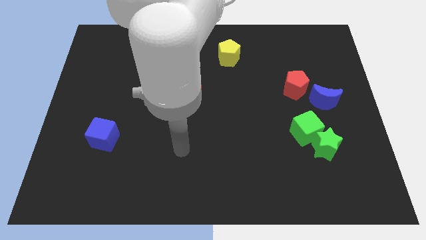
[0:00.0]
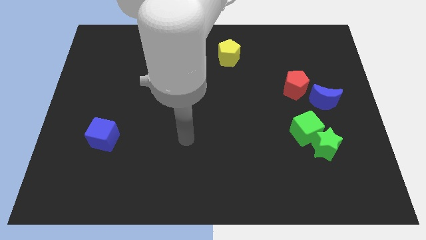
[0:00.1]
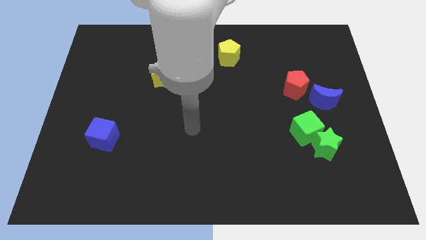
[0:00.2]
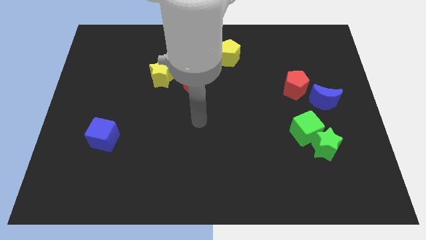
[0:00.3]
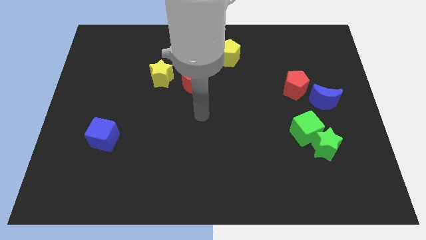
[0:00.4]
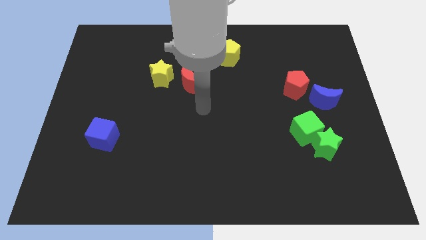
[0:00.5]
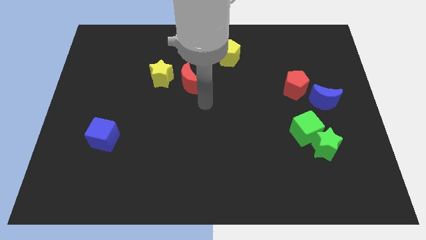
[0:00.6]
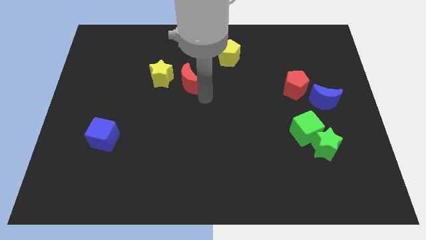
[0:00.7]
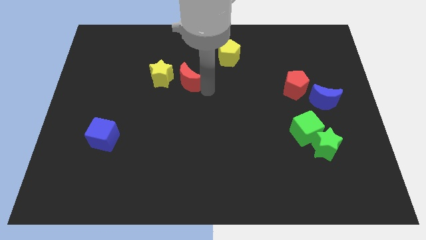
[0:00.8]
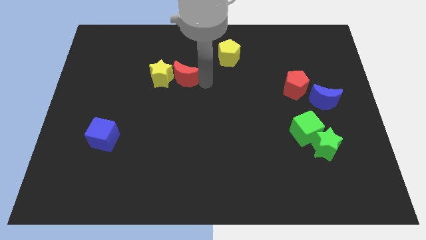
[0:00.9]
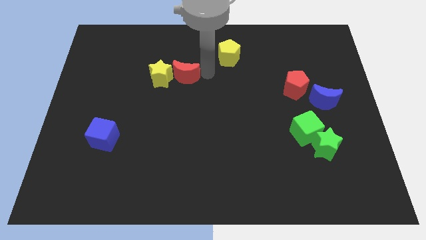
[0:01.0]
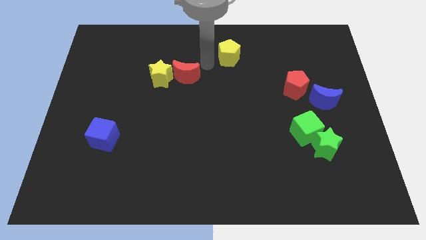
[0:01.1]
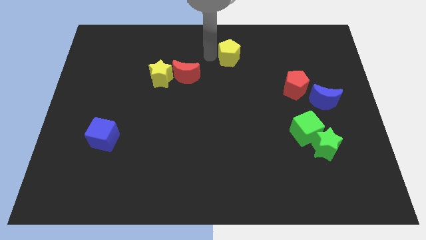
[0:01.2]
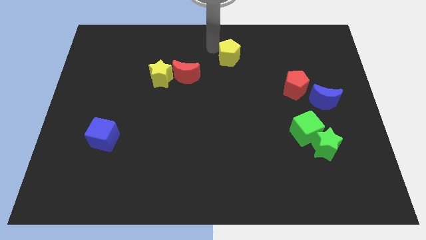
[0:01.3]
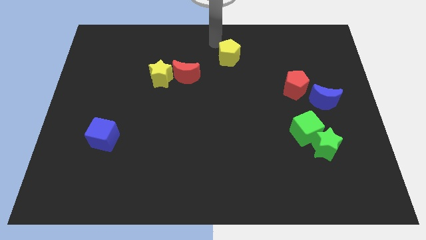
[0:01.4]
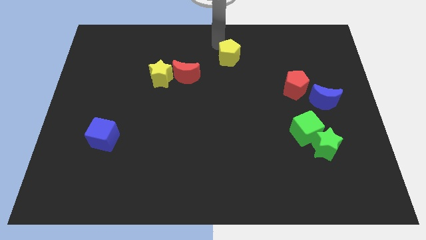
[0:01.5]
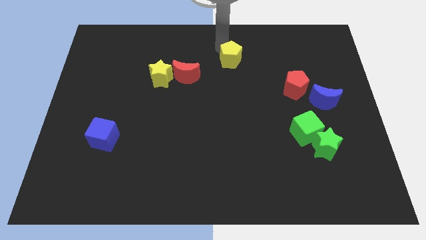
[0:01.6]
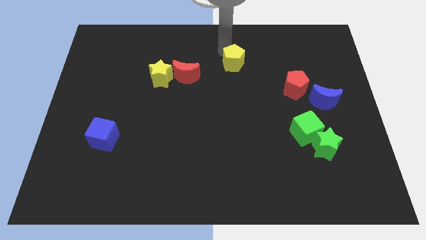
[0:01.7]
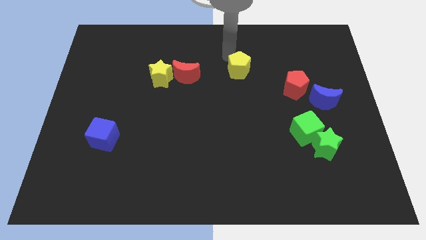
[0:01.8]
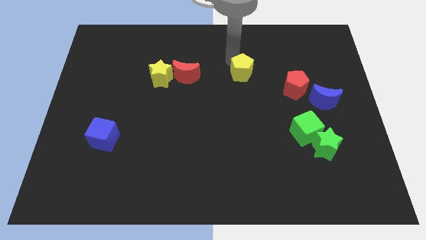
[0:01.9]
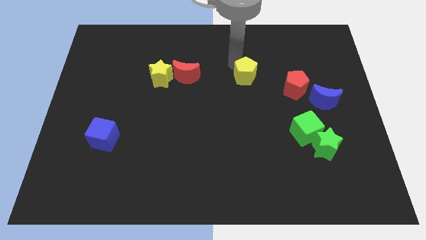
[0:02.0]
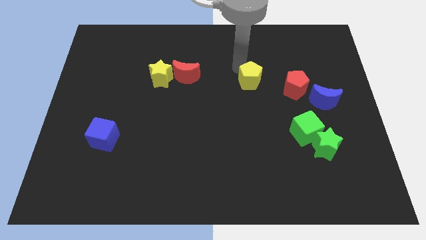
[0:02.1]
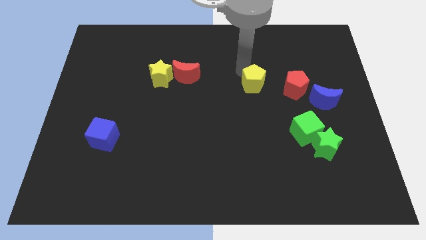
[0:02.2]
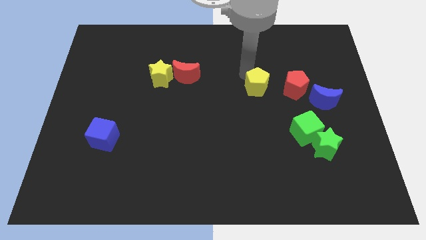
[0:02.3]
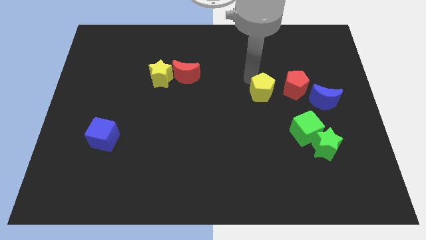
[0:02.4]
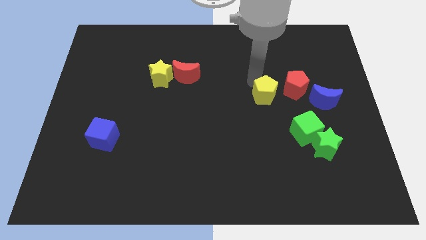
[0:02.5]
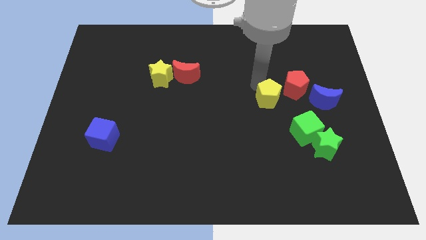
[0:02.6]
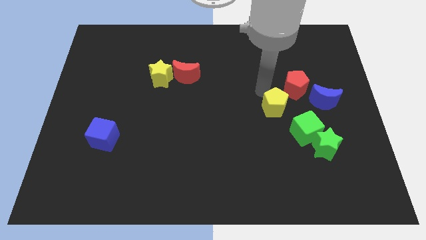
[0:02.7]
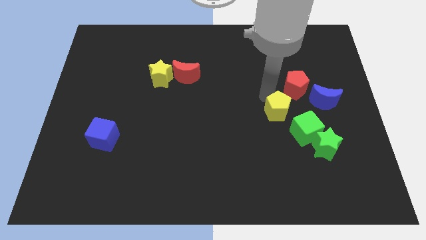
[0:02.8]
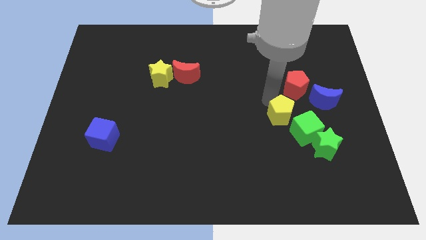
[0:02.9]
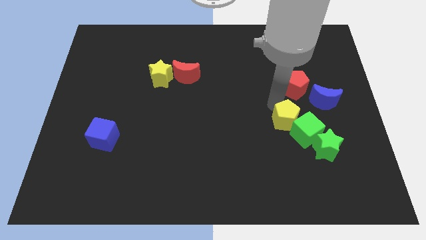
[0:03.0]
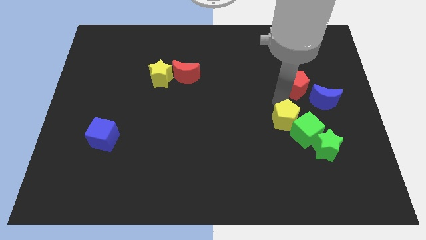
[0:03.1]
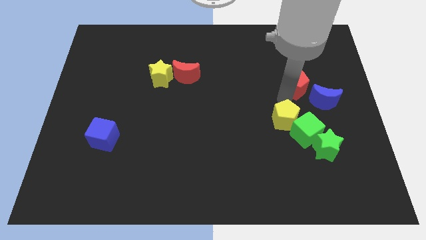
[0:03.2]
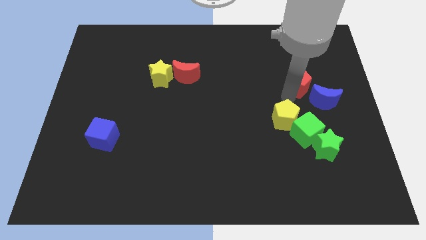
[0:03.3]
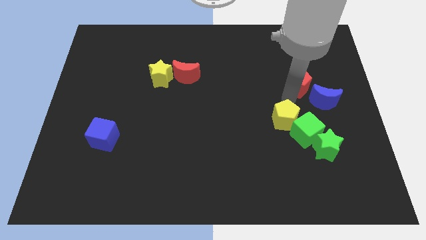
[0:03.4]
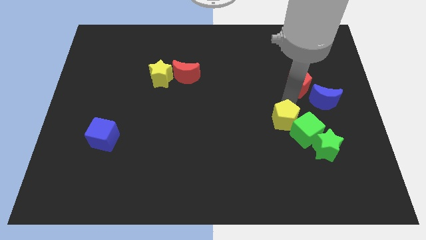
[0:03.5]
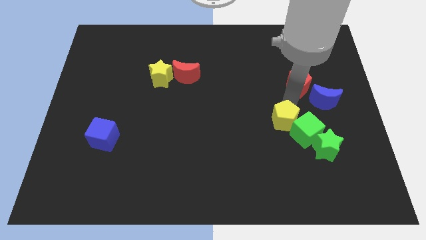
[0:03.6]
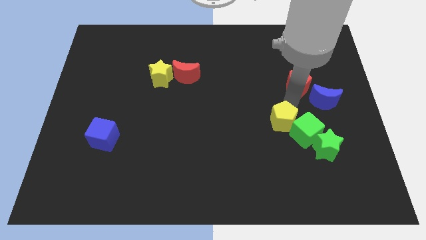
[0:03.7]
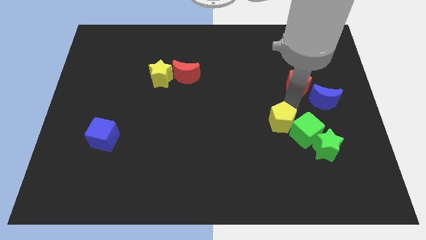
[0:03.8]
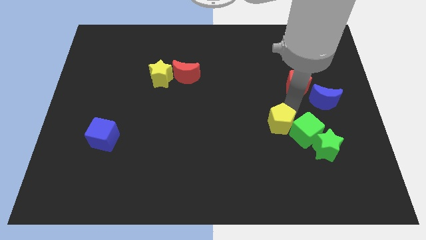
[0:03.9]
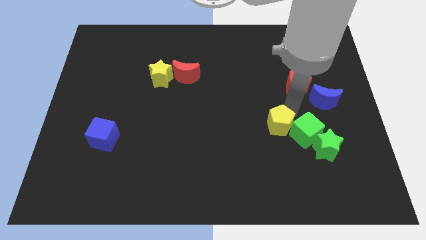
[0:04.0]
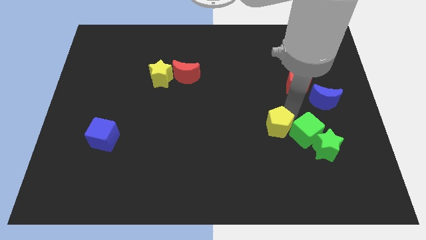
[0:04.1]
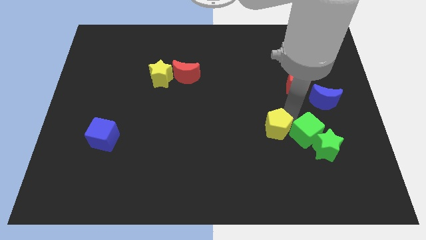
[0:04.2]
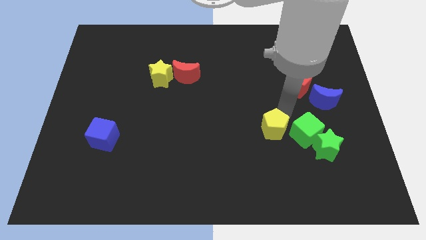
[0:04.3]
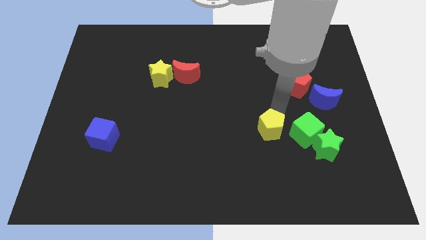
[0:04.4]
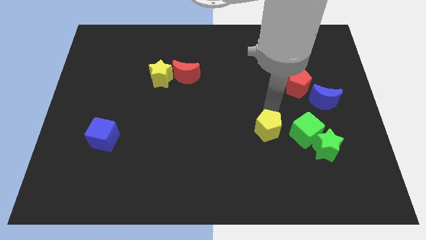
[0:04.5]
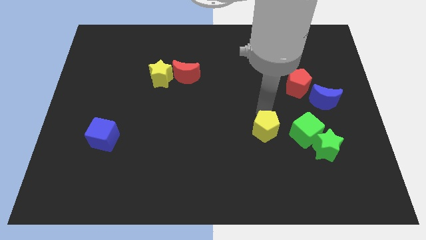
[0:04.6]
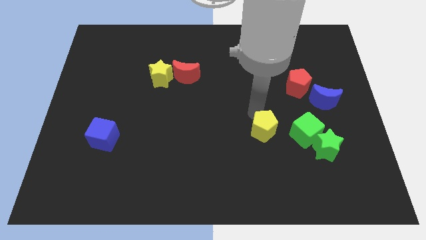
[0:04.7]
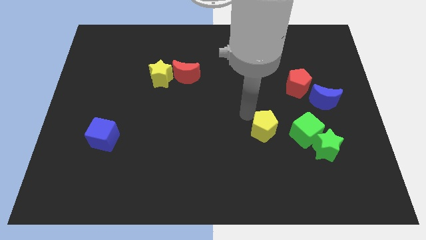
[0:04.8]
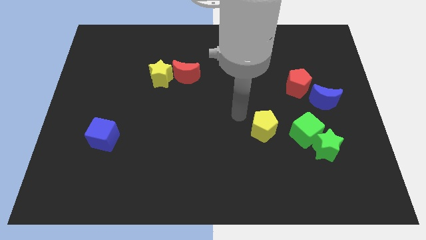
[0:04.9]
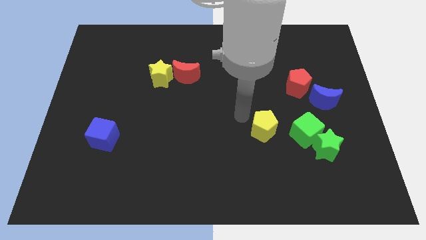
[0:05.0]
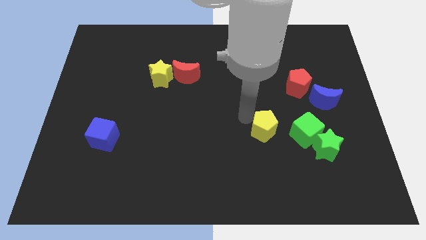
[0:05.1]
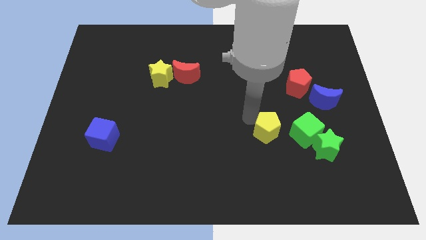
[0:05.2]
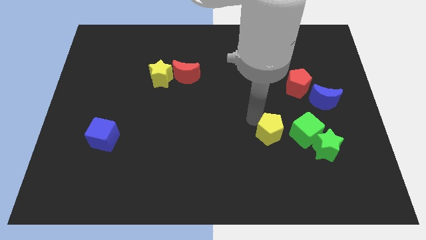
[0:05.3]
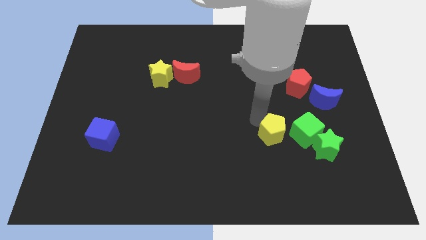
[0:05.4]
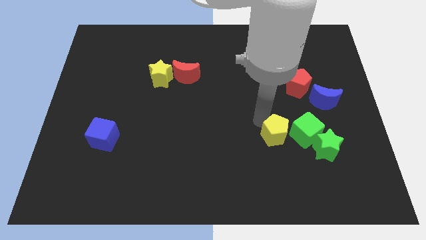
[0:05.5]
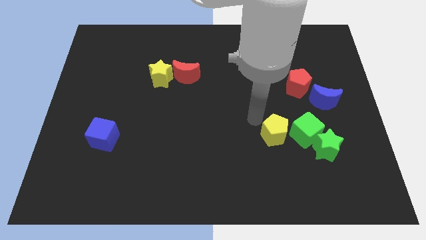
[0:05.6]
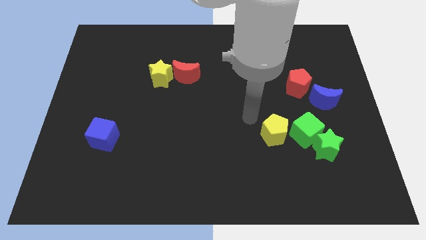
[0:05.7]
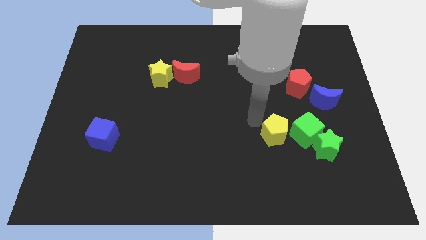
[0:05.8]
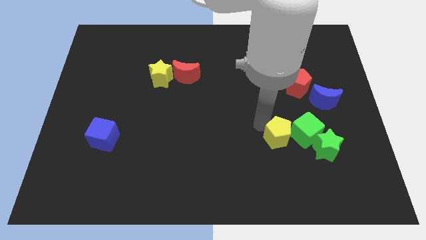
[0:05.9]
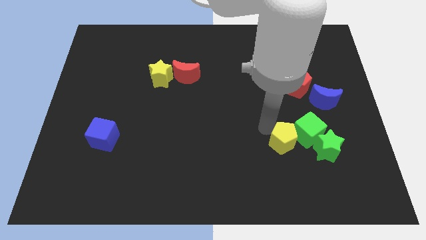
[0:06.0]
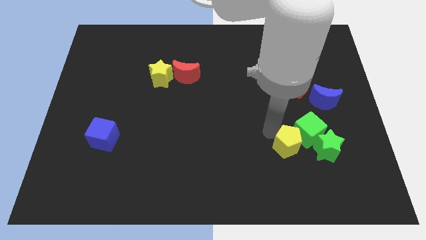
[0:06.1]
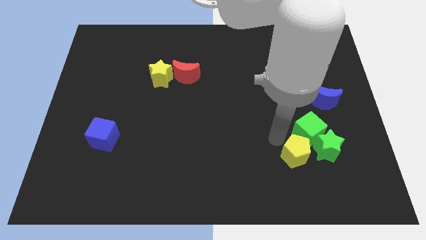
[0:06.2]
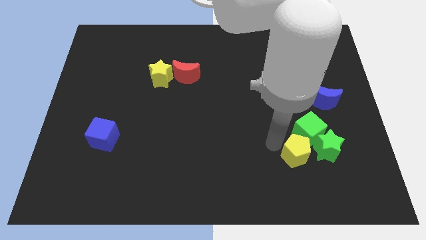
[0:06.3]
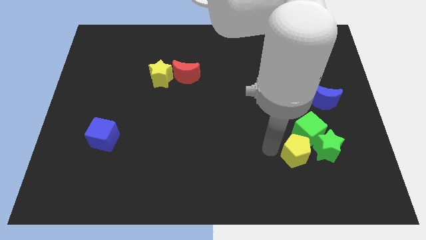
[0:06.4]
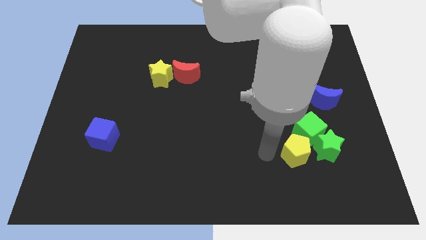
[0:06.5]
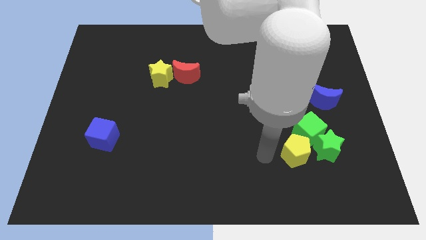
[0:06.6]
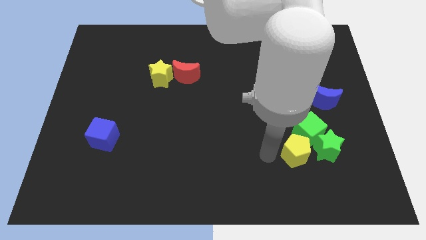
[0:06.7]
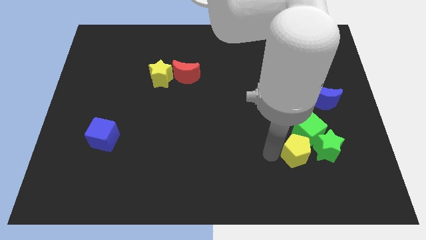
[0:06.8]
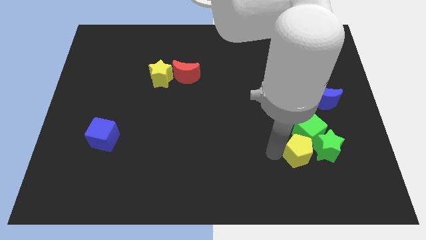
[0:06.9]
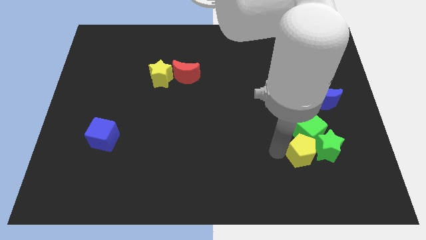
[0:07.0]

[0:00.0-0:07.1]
move the yellow pentagon to the green star

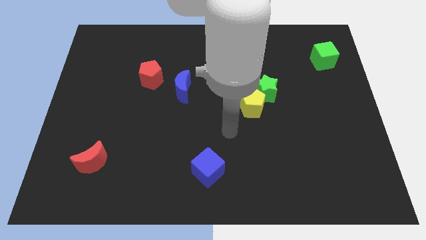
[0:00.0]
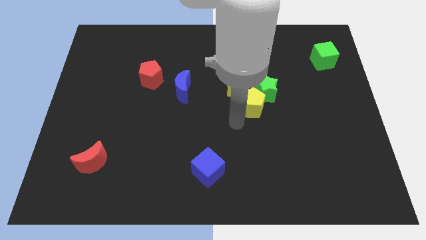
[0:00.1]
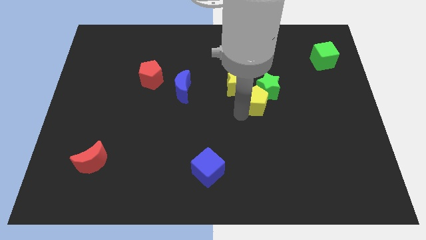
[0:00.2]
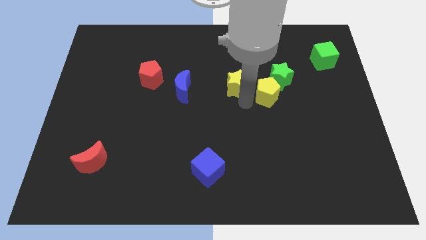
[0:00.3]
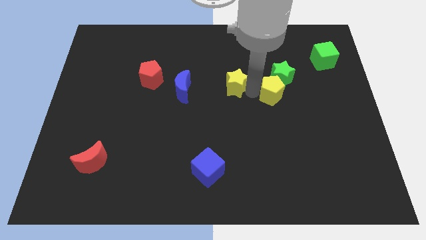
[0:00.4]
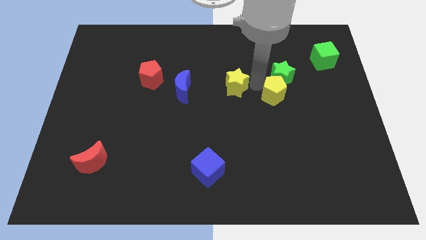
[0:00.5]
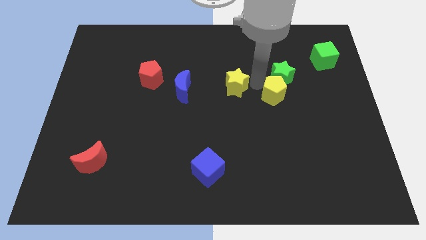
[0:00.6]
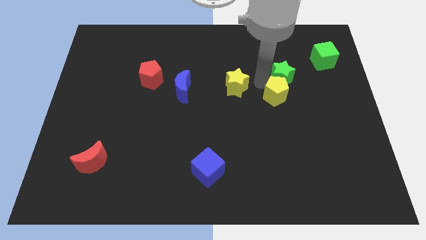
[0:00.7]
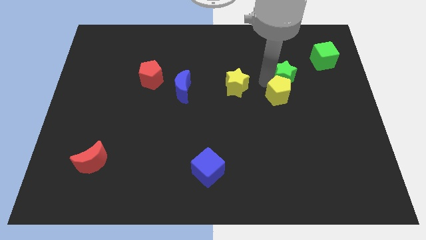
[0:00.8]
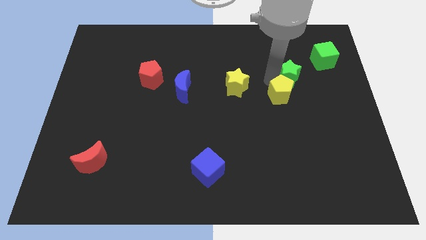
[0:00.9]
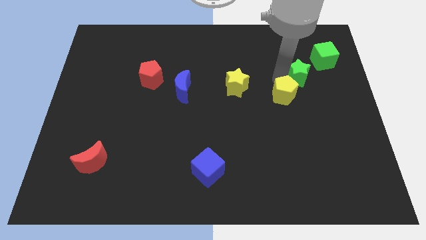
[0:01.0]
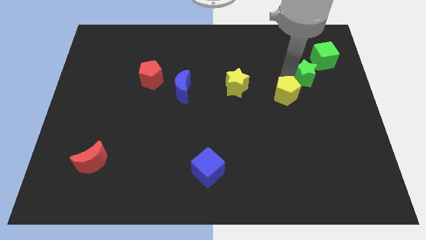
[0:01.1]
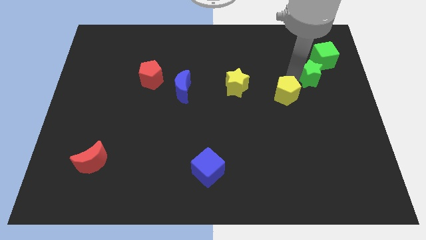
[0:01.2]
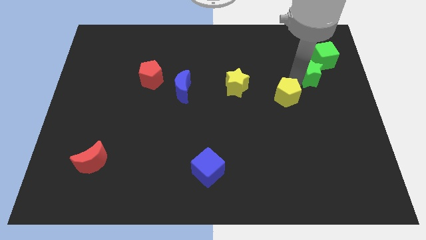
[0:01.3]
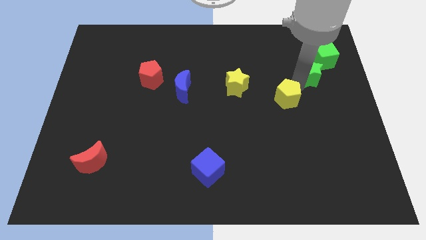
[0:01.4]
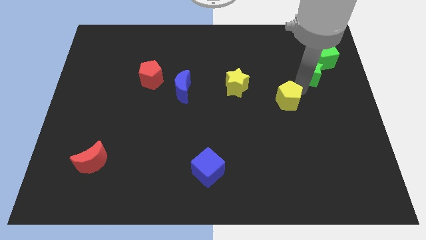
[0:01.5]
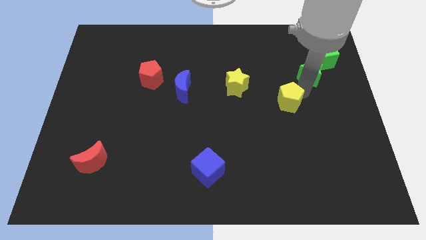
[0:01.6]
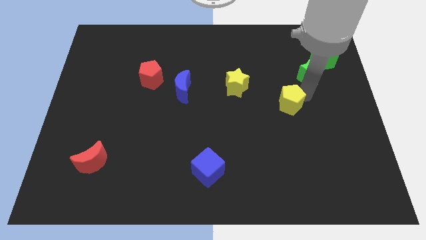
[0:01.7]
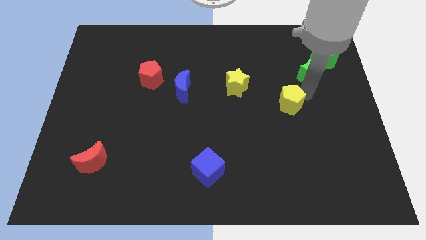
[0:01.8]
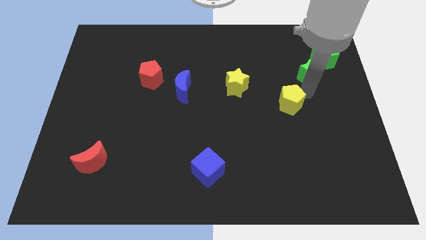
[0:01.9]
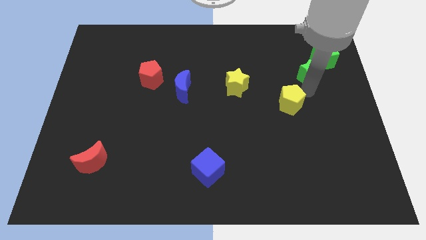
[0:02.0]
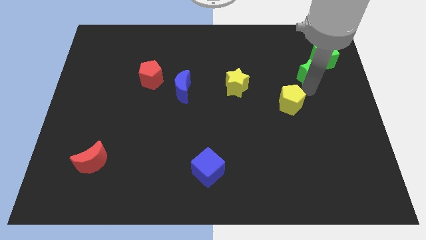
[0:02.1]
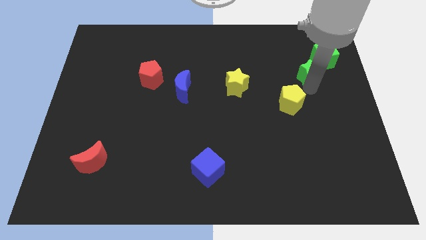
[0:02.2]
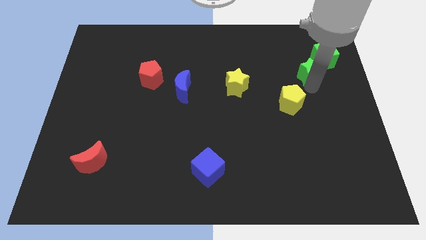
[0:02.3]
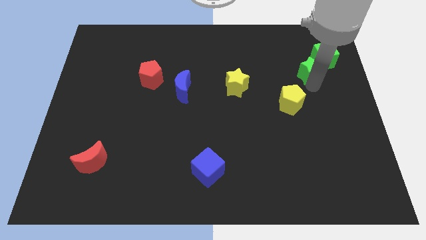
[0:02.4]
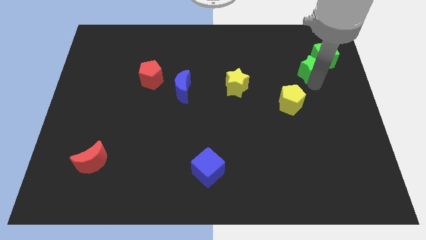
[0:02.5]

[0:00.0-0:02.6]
slide the green star to the green cube
